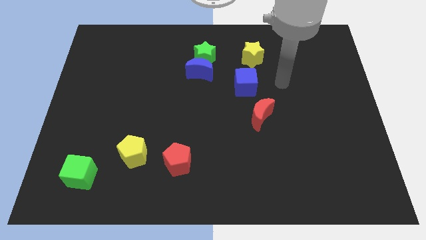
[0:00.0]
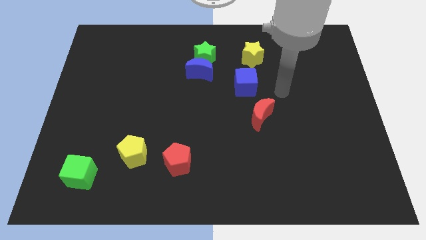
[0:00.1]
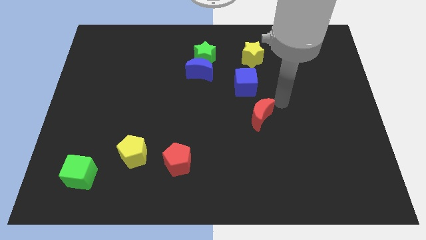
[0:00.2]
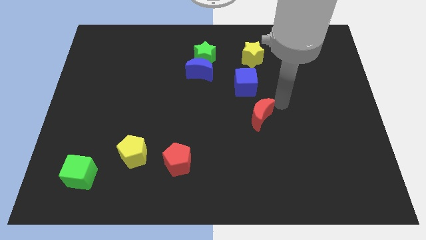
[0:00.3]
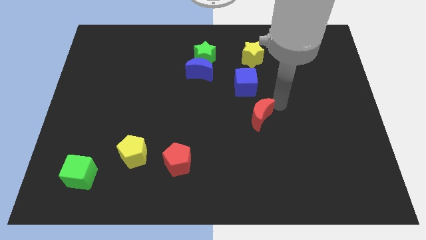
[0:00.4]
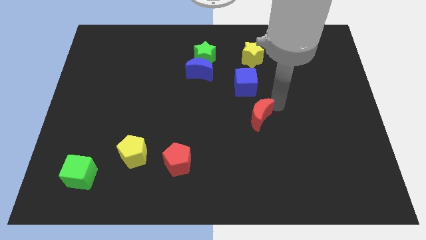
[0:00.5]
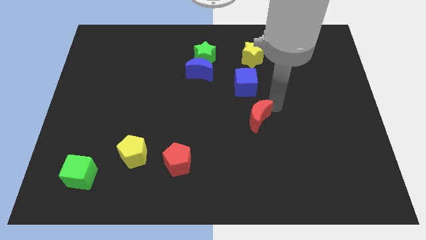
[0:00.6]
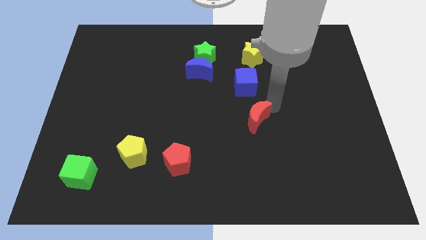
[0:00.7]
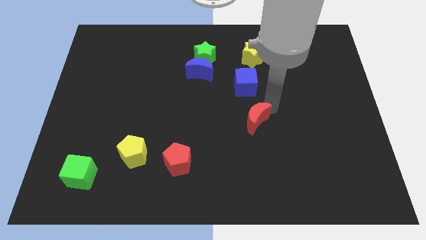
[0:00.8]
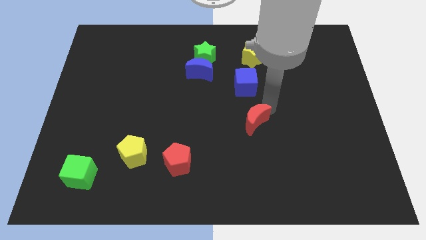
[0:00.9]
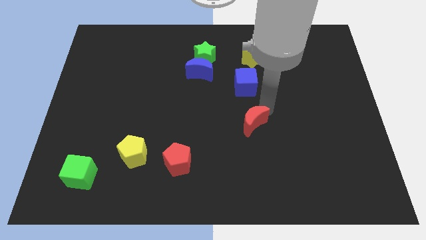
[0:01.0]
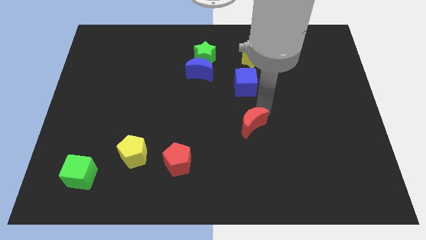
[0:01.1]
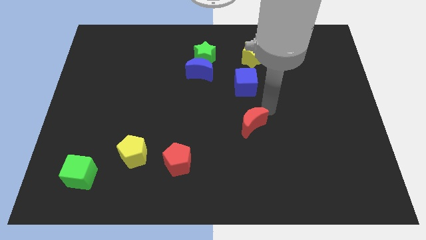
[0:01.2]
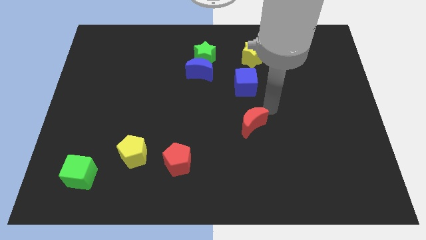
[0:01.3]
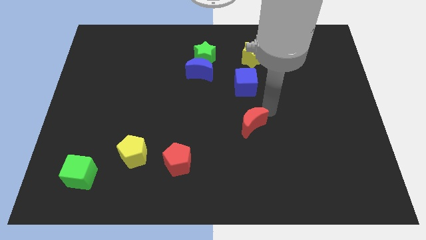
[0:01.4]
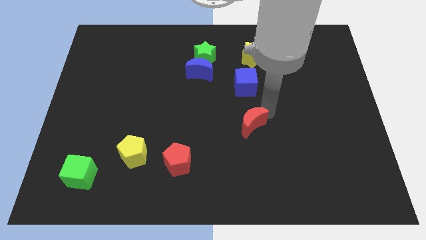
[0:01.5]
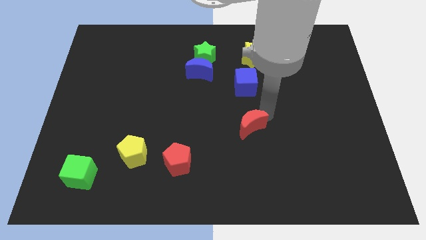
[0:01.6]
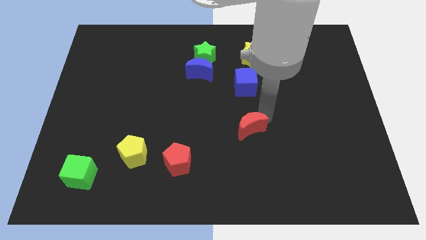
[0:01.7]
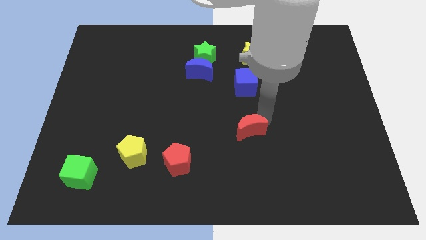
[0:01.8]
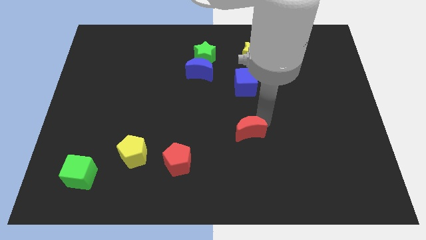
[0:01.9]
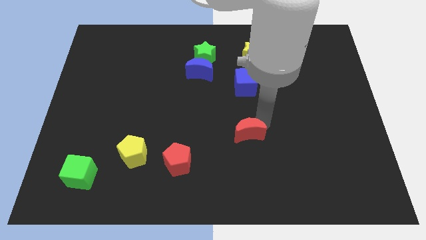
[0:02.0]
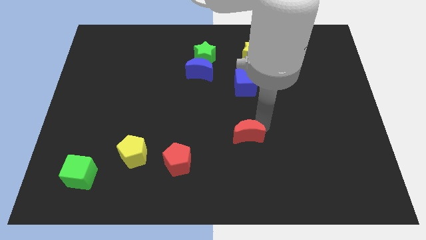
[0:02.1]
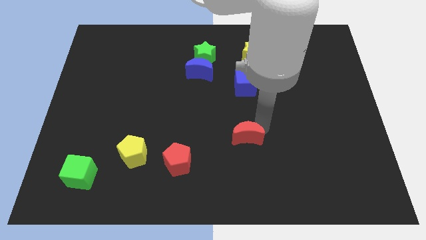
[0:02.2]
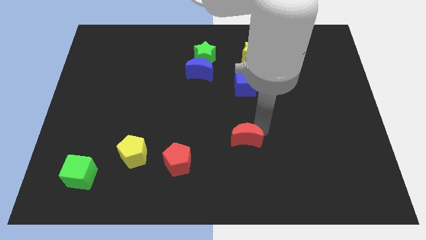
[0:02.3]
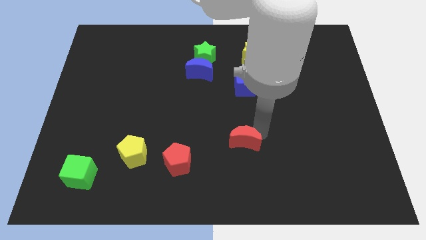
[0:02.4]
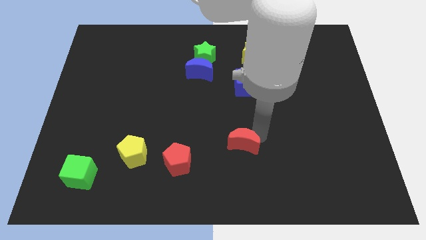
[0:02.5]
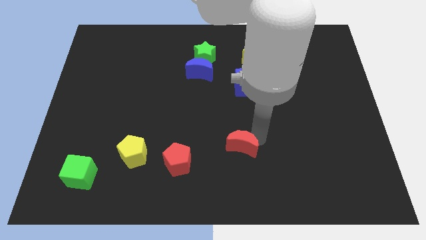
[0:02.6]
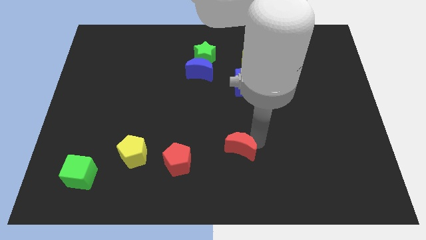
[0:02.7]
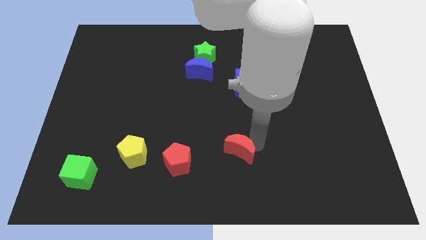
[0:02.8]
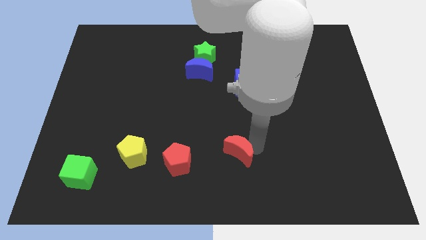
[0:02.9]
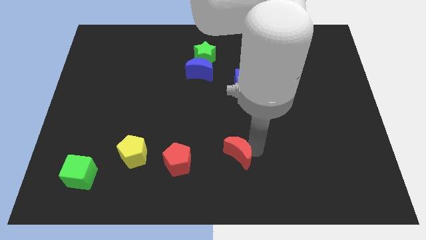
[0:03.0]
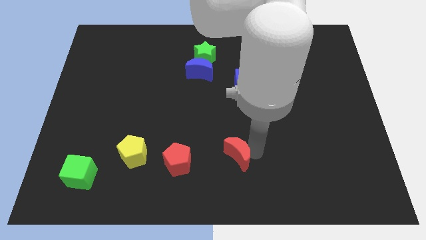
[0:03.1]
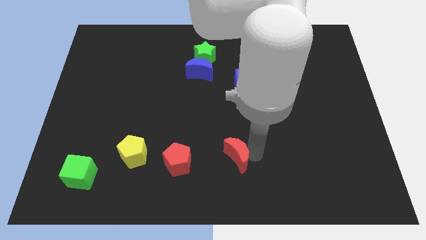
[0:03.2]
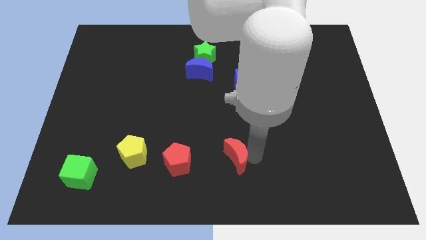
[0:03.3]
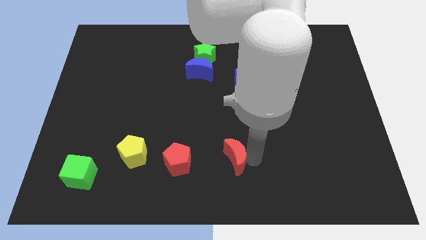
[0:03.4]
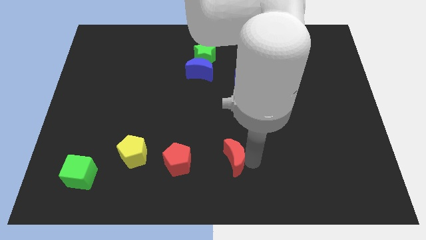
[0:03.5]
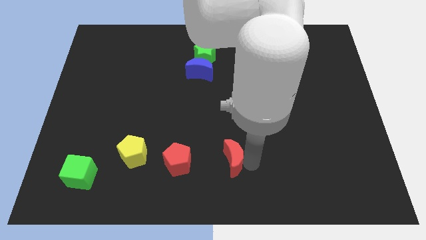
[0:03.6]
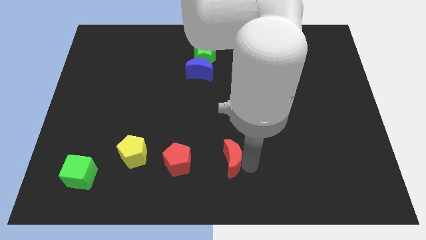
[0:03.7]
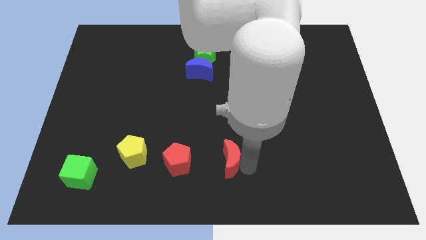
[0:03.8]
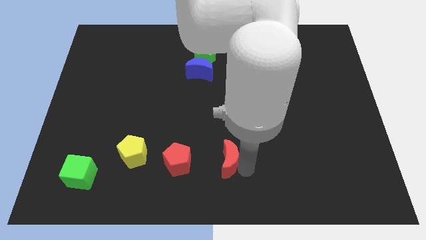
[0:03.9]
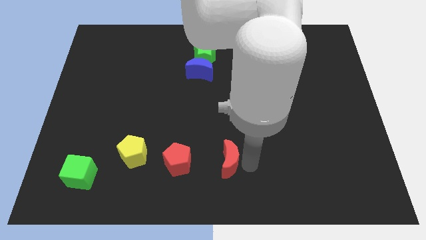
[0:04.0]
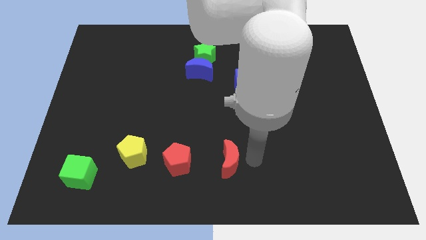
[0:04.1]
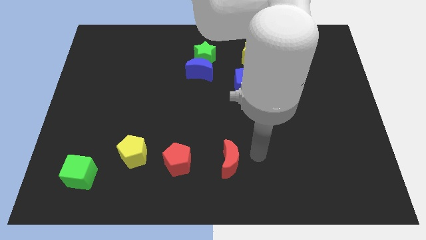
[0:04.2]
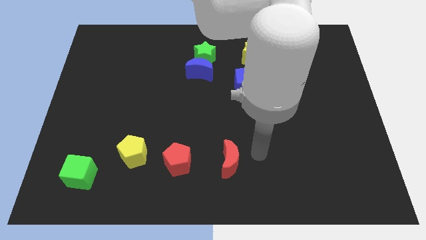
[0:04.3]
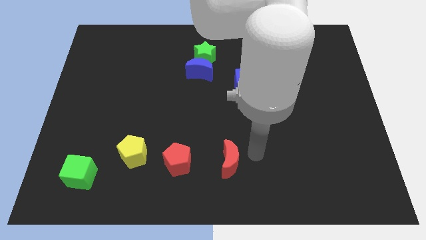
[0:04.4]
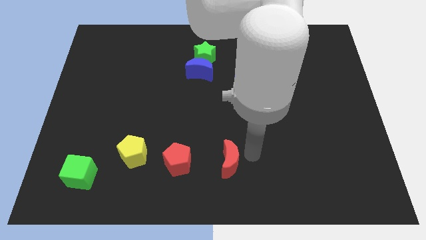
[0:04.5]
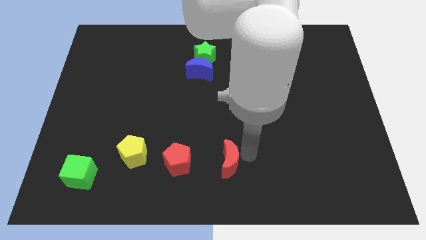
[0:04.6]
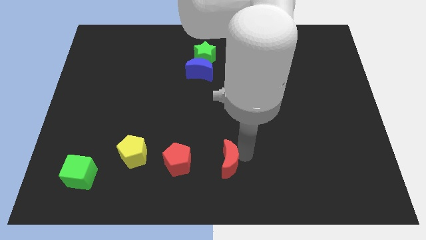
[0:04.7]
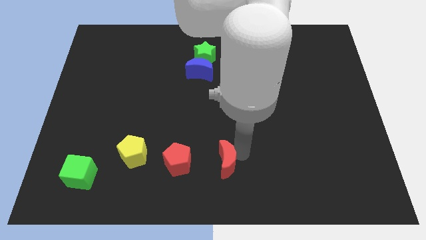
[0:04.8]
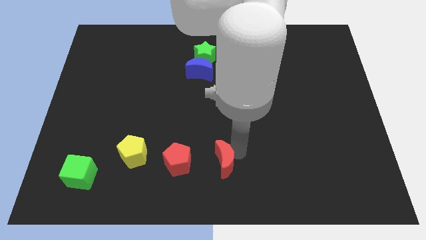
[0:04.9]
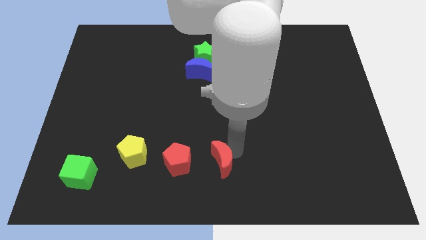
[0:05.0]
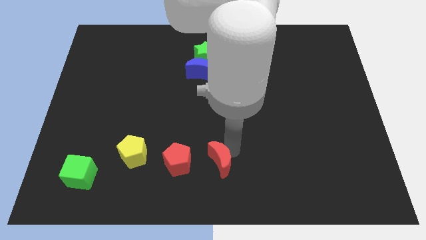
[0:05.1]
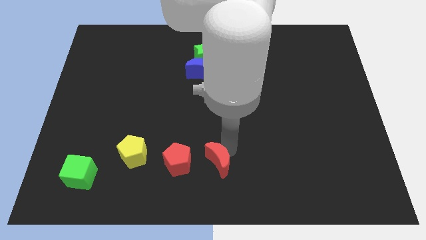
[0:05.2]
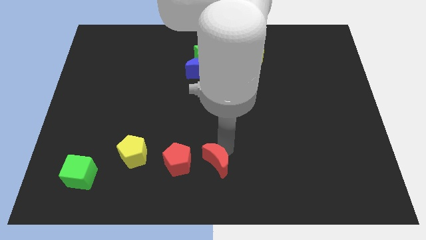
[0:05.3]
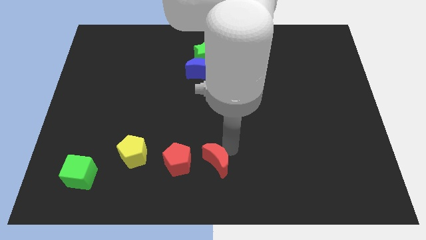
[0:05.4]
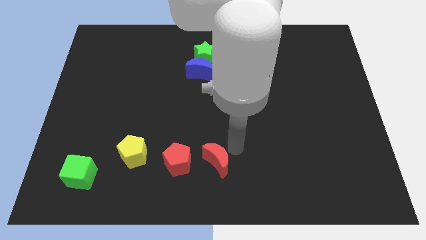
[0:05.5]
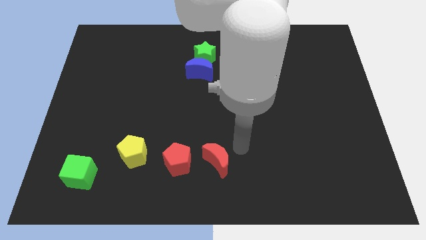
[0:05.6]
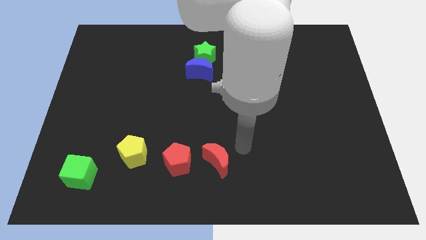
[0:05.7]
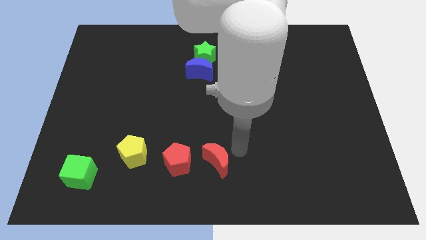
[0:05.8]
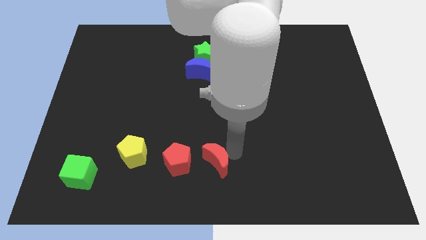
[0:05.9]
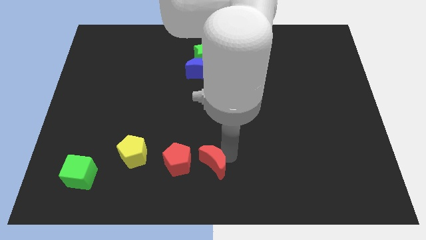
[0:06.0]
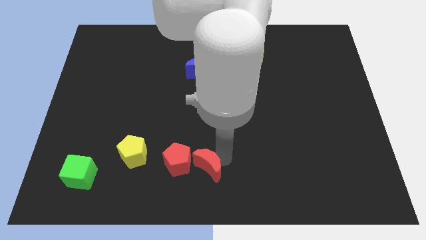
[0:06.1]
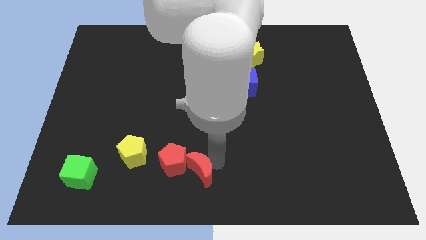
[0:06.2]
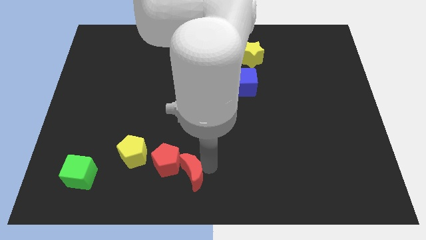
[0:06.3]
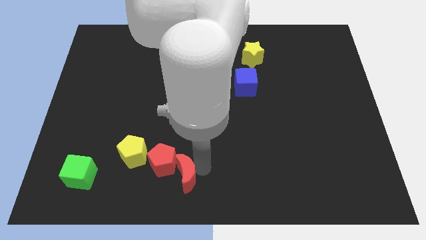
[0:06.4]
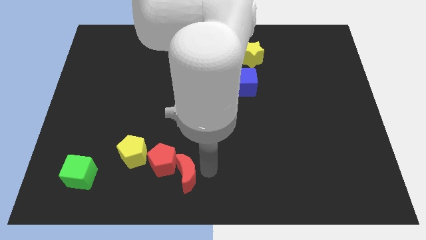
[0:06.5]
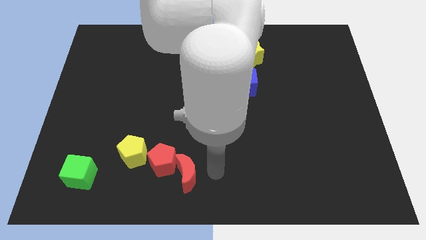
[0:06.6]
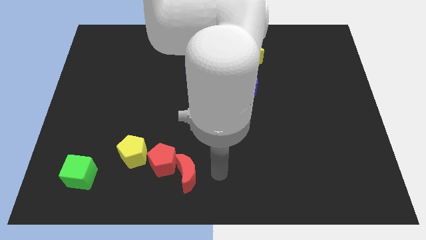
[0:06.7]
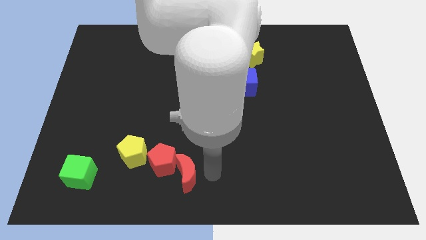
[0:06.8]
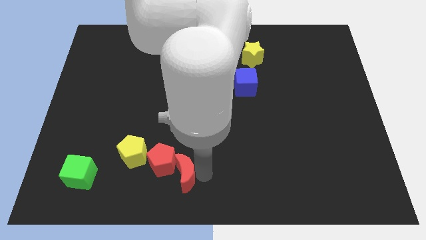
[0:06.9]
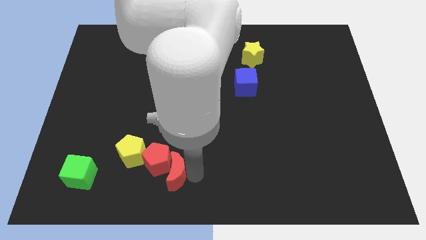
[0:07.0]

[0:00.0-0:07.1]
put the red moon diagonally down and to the right of the yellow pentagon

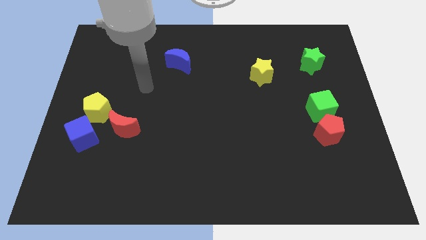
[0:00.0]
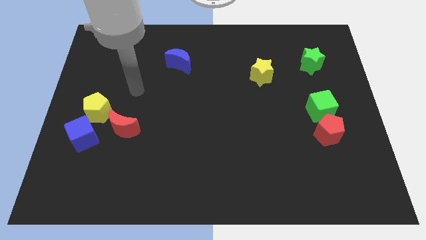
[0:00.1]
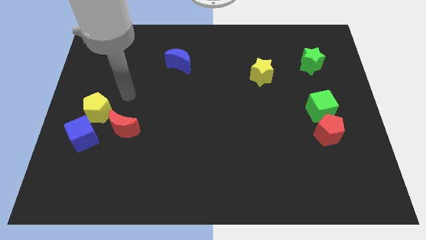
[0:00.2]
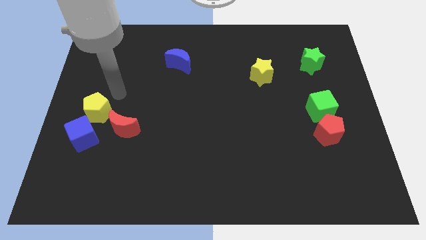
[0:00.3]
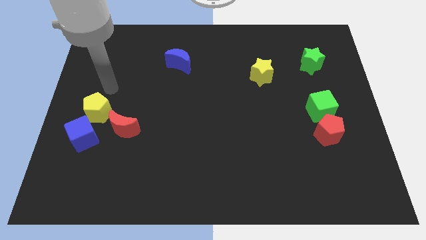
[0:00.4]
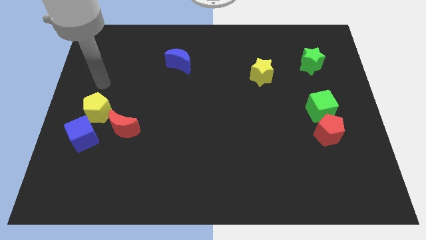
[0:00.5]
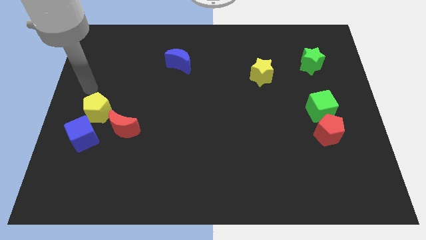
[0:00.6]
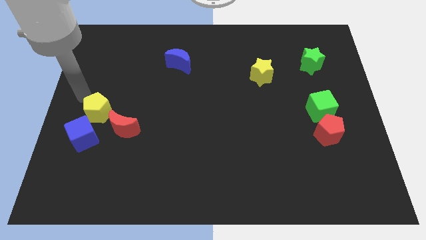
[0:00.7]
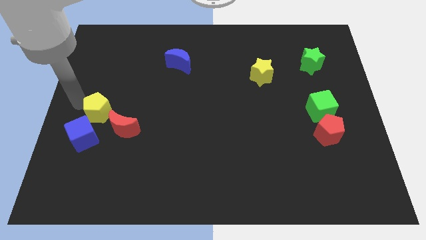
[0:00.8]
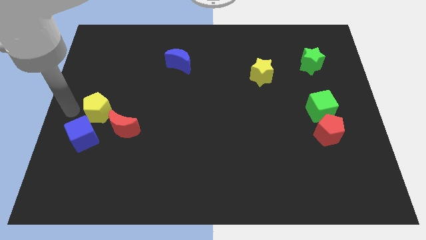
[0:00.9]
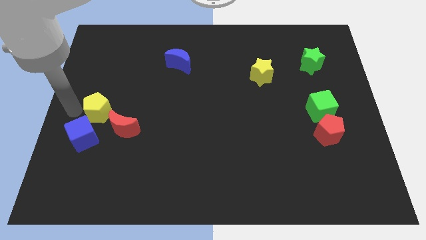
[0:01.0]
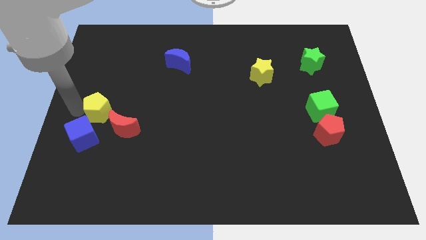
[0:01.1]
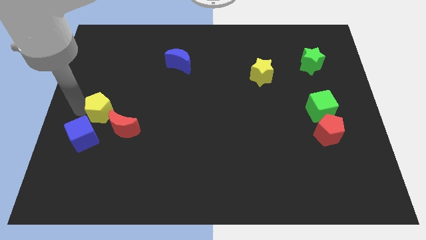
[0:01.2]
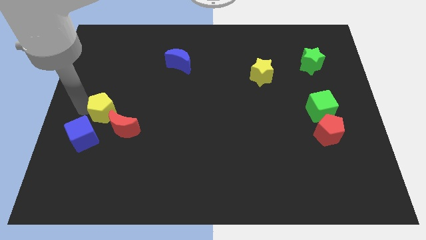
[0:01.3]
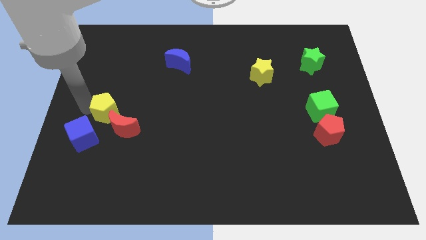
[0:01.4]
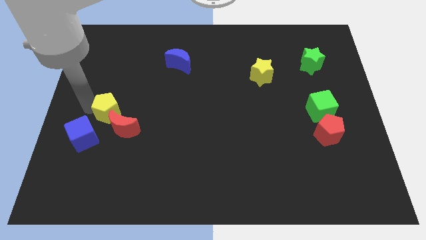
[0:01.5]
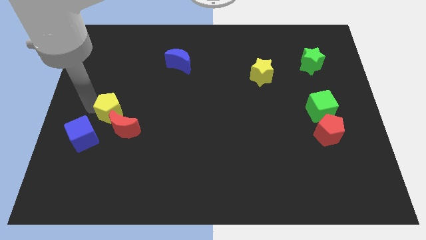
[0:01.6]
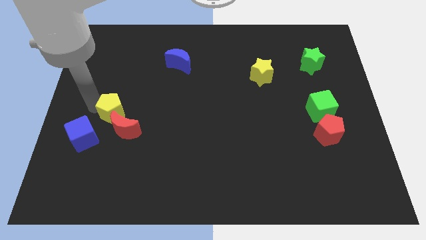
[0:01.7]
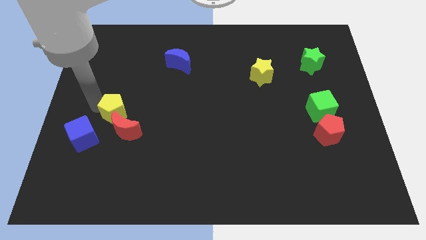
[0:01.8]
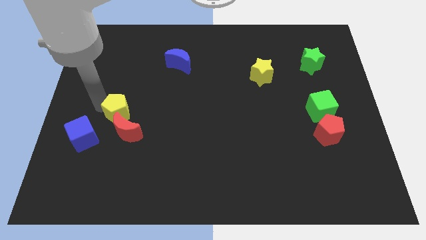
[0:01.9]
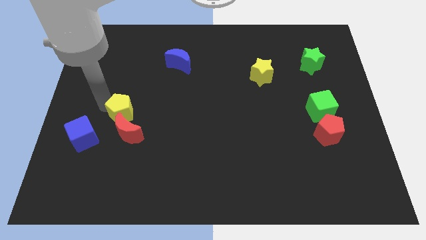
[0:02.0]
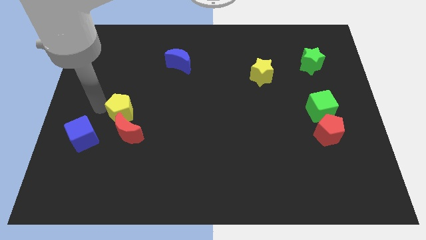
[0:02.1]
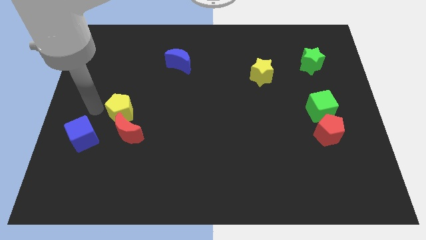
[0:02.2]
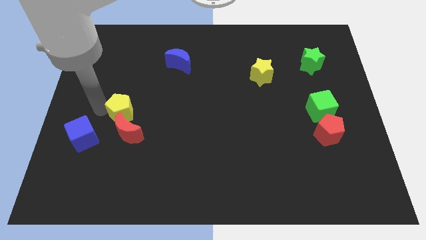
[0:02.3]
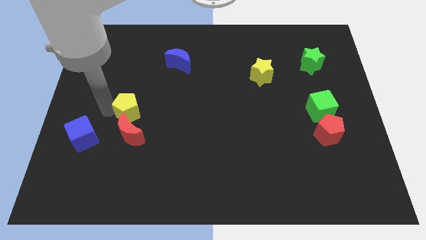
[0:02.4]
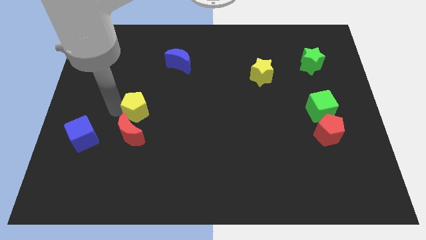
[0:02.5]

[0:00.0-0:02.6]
push the yellow pentagon diagonally up and to the right of the red moon
